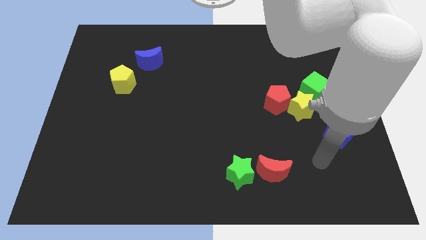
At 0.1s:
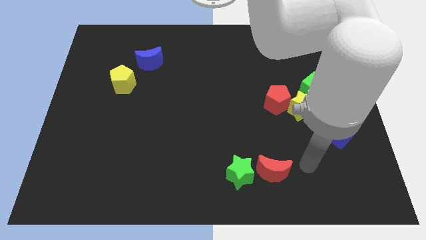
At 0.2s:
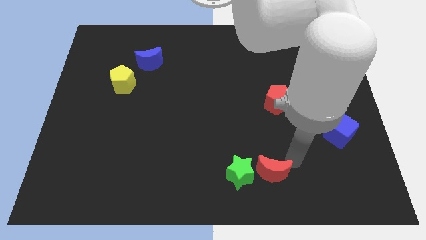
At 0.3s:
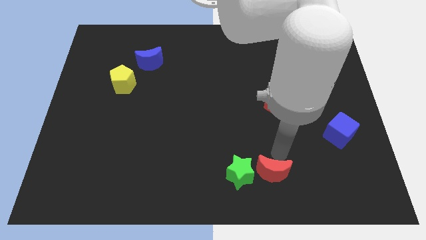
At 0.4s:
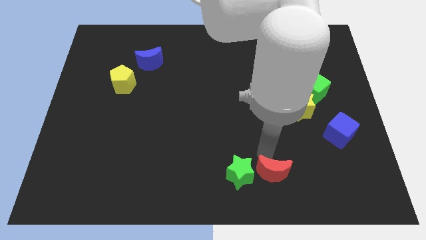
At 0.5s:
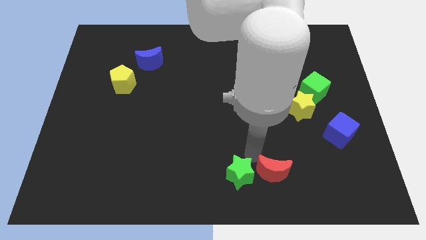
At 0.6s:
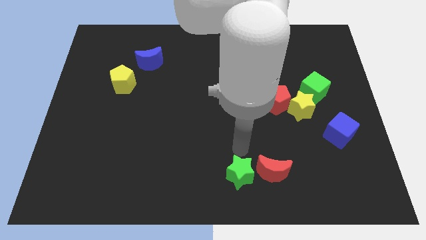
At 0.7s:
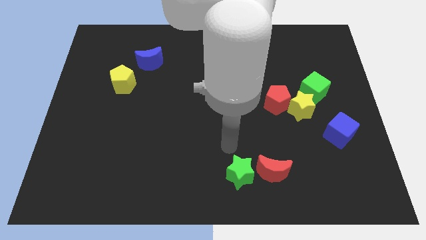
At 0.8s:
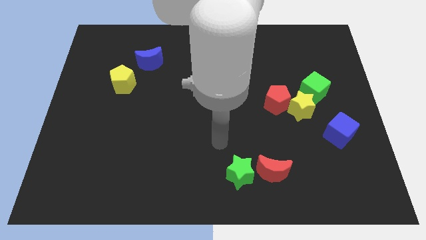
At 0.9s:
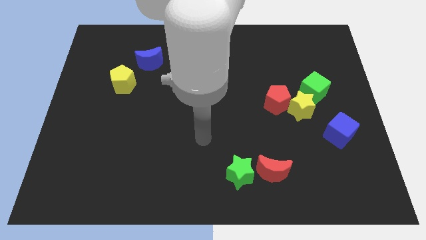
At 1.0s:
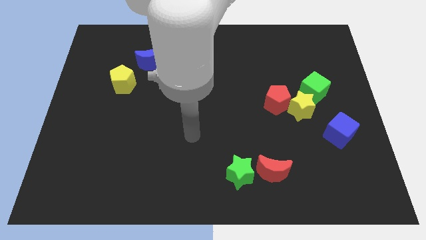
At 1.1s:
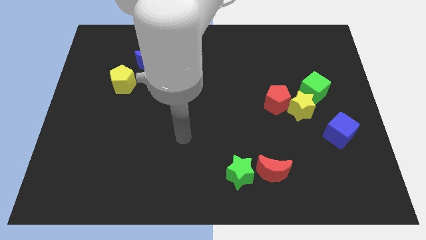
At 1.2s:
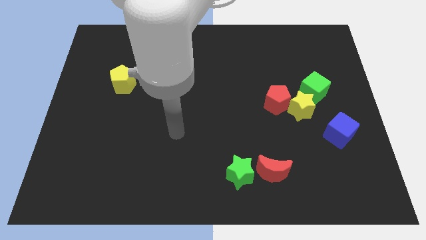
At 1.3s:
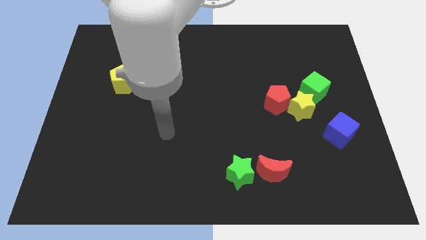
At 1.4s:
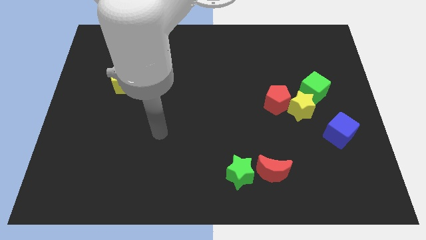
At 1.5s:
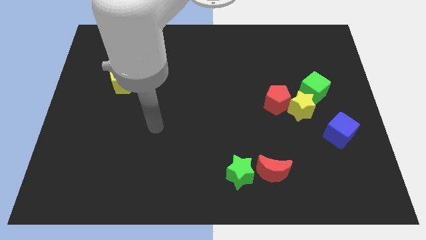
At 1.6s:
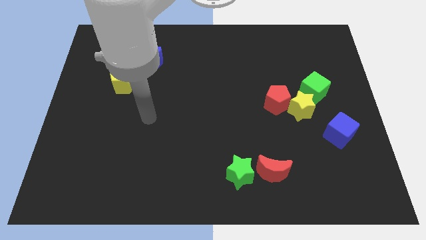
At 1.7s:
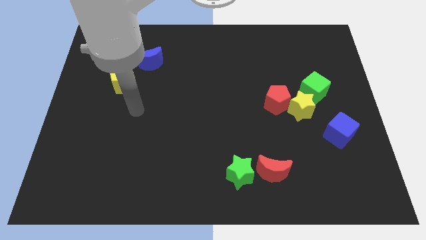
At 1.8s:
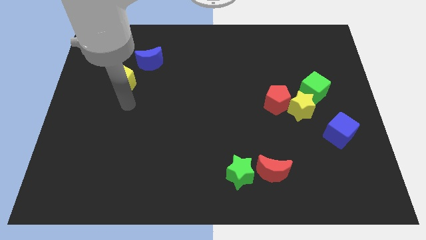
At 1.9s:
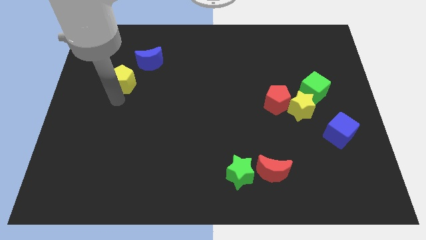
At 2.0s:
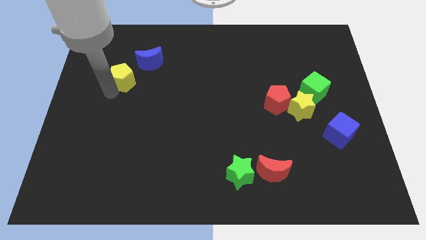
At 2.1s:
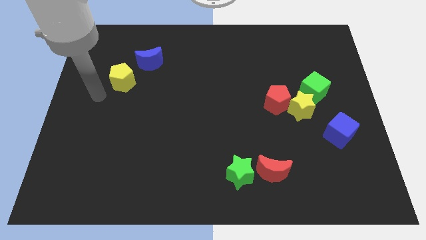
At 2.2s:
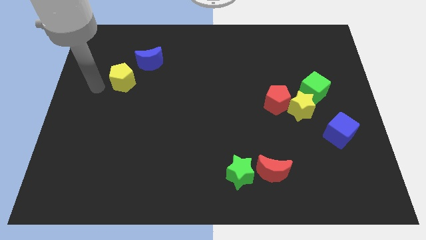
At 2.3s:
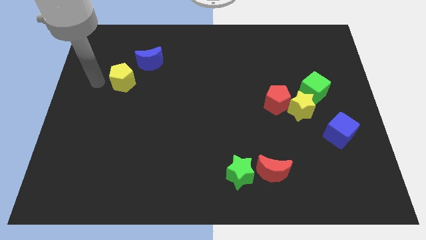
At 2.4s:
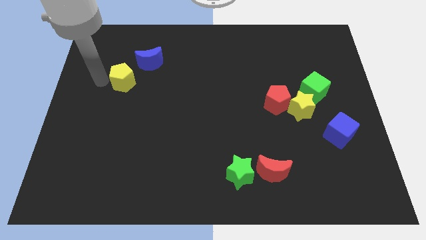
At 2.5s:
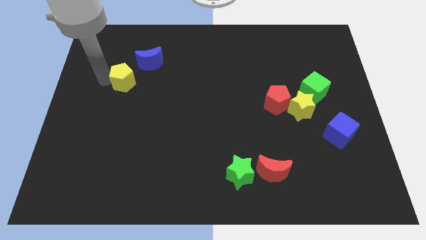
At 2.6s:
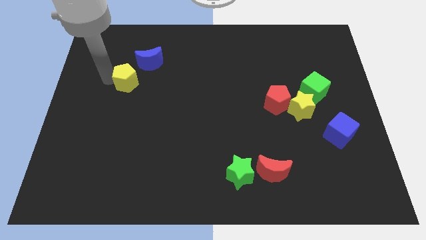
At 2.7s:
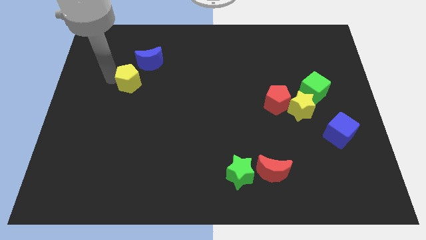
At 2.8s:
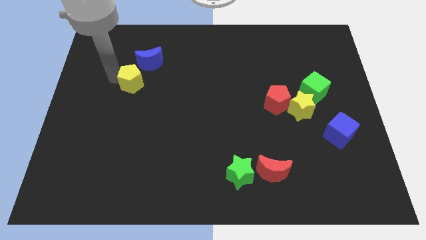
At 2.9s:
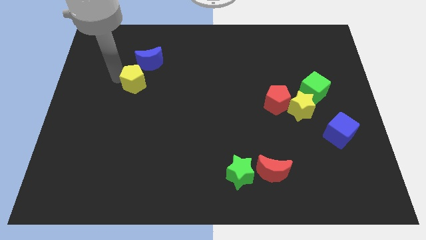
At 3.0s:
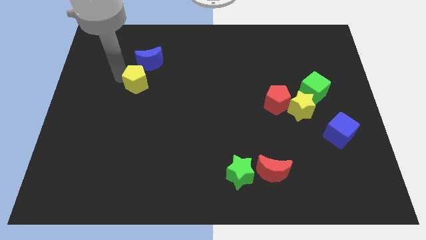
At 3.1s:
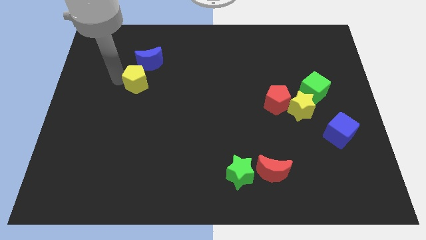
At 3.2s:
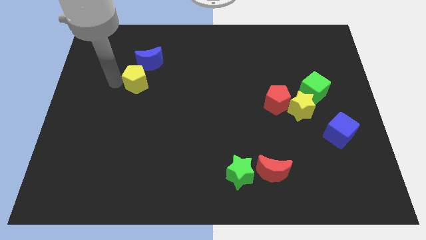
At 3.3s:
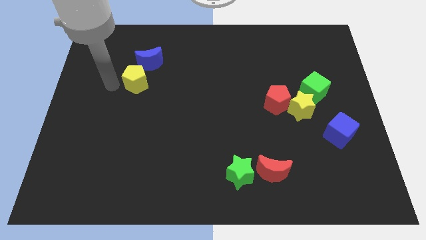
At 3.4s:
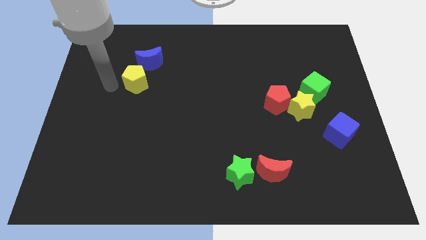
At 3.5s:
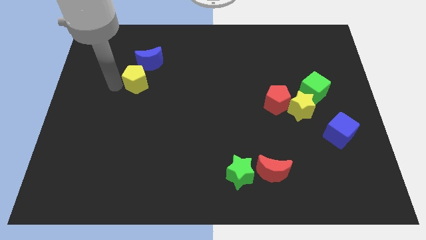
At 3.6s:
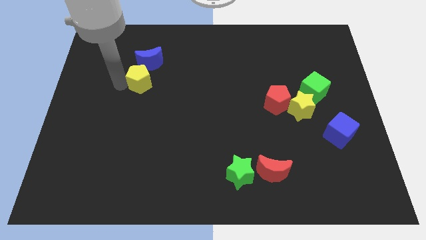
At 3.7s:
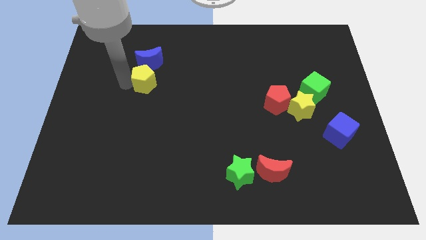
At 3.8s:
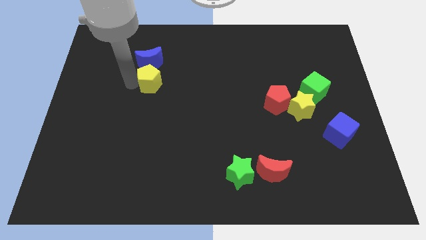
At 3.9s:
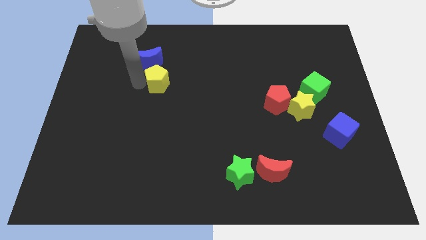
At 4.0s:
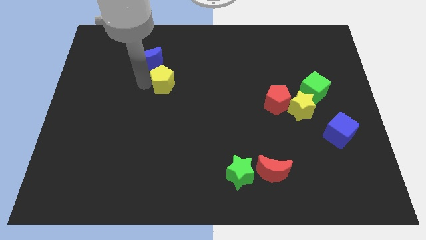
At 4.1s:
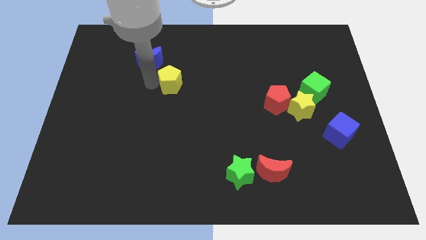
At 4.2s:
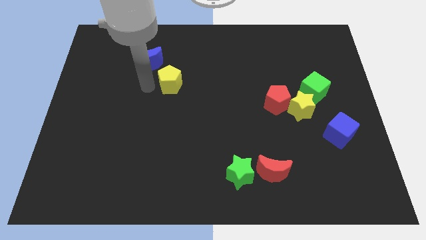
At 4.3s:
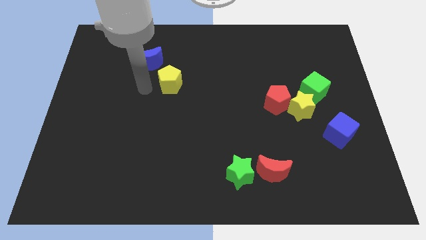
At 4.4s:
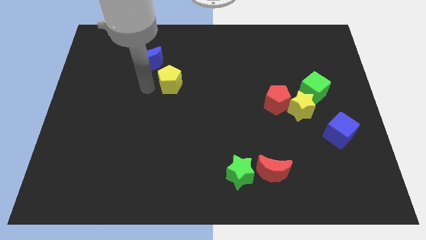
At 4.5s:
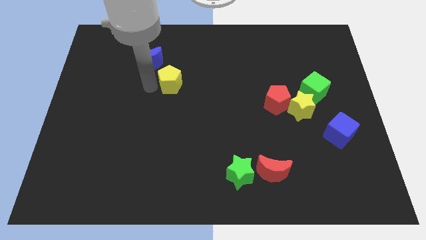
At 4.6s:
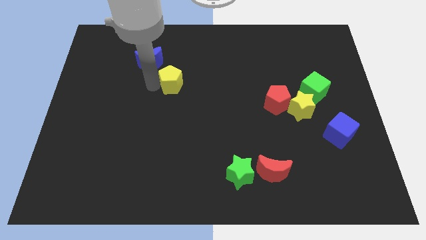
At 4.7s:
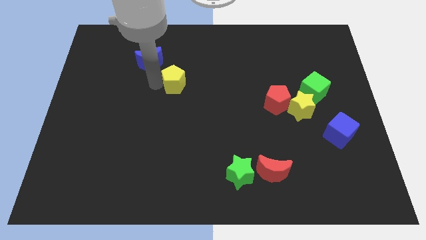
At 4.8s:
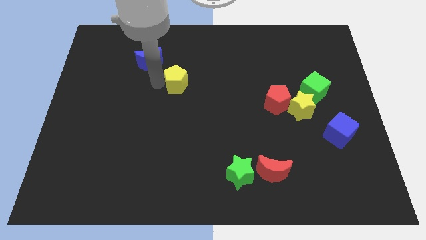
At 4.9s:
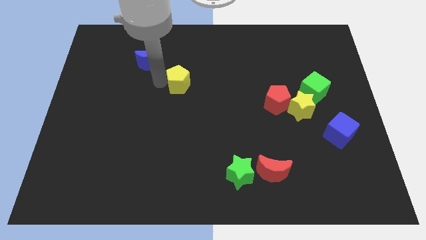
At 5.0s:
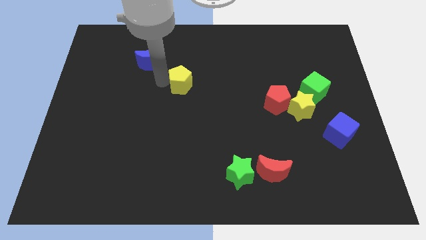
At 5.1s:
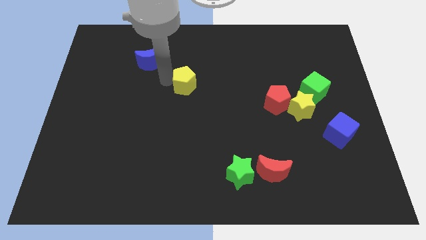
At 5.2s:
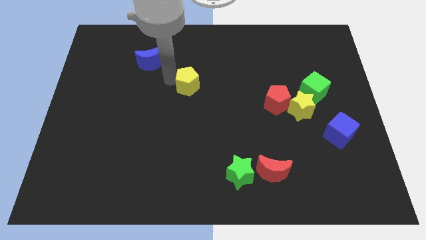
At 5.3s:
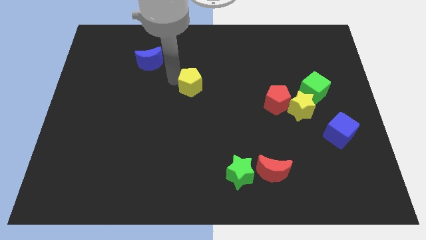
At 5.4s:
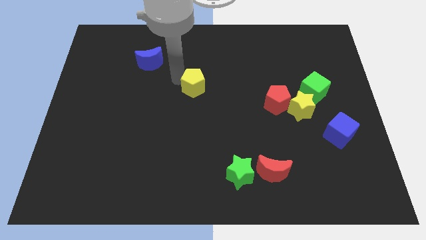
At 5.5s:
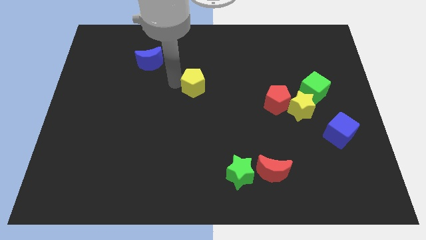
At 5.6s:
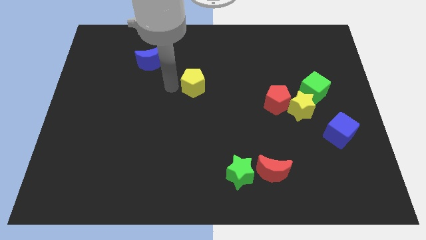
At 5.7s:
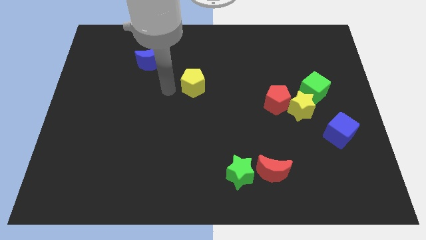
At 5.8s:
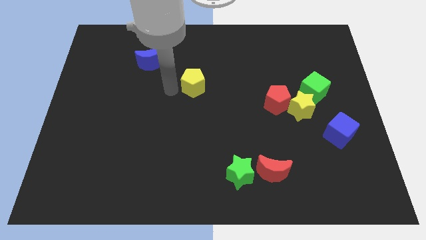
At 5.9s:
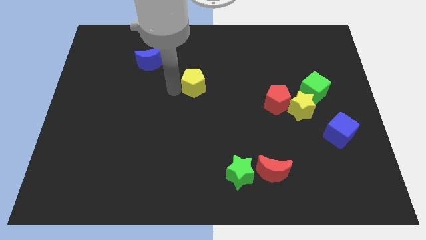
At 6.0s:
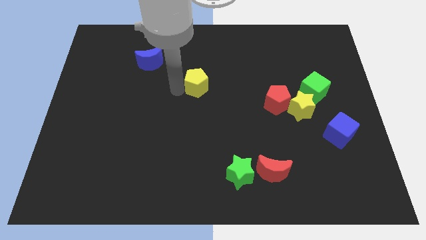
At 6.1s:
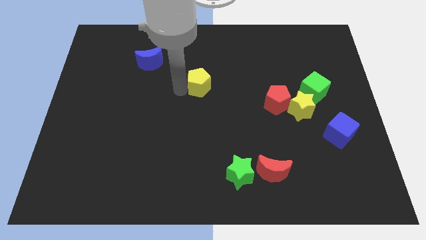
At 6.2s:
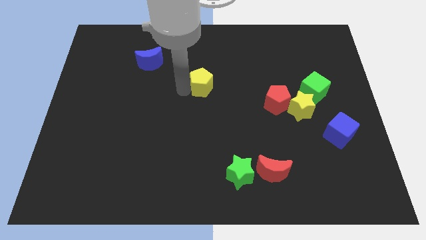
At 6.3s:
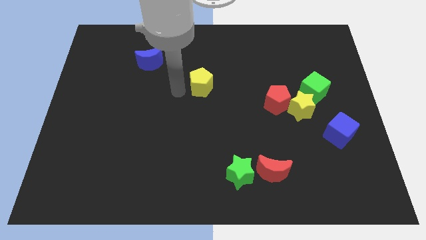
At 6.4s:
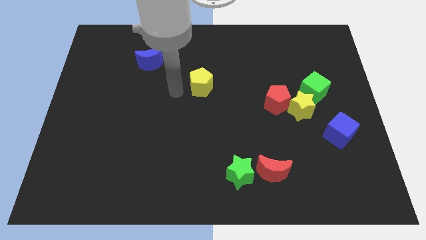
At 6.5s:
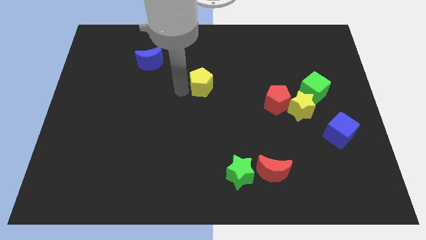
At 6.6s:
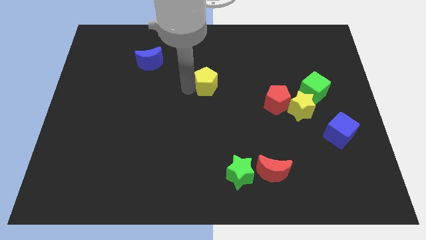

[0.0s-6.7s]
slide the yellow pentagon right

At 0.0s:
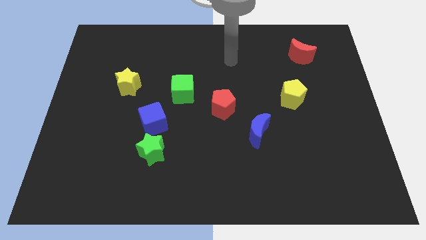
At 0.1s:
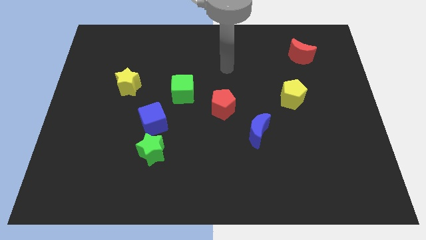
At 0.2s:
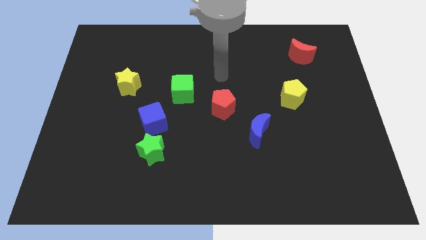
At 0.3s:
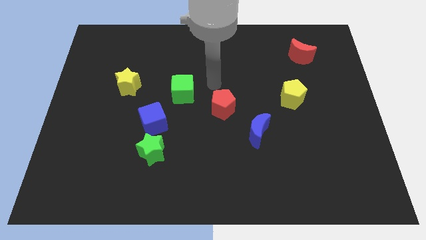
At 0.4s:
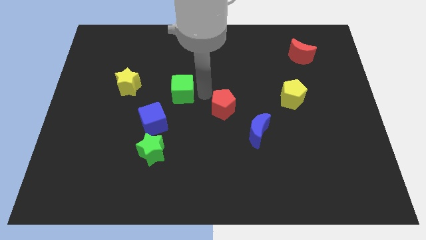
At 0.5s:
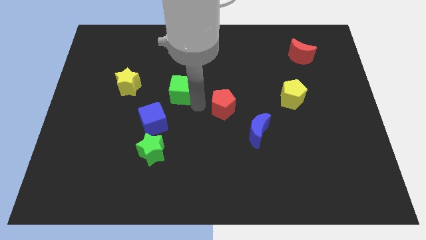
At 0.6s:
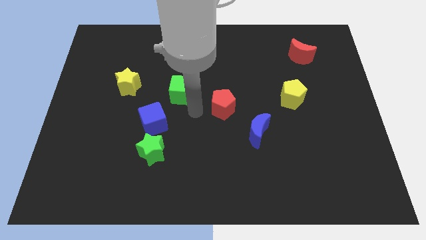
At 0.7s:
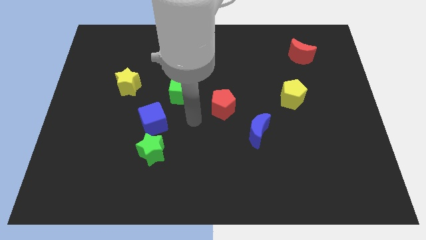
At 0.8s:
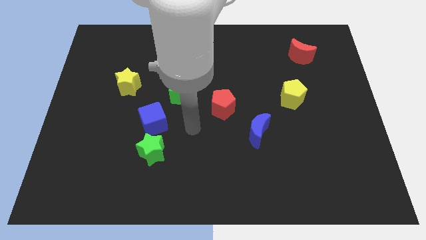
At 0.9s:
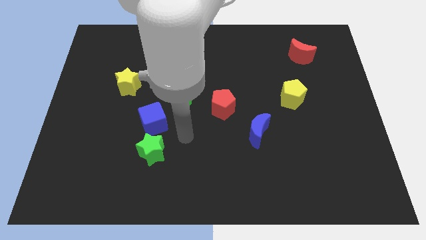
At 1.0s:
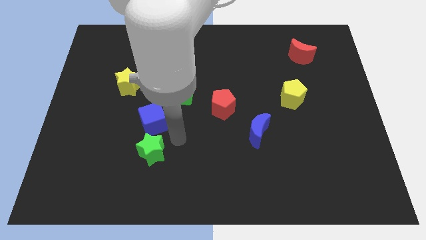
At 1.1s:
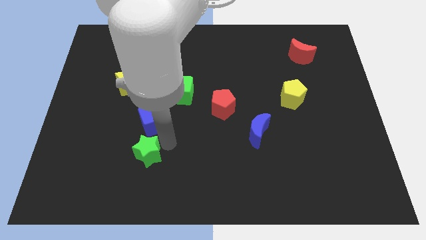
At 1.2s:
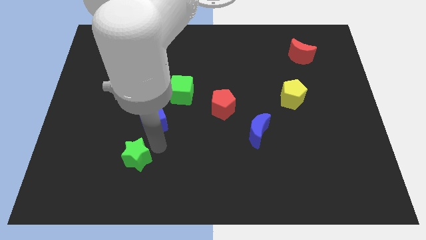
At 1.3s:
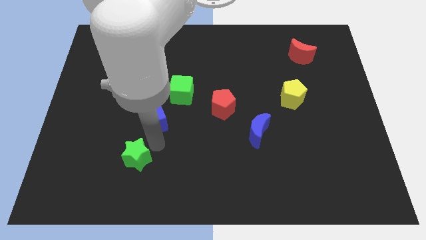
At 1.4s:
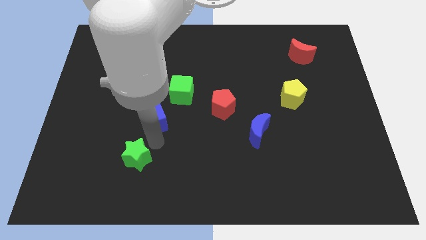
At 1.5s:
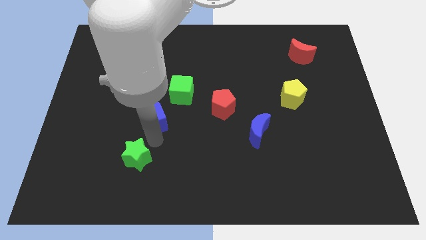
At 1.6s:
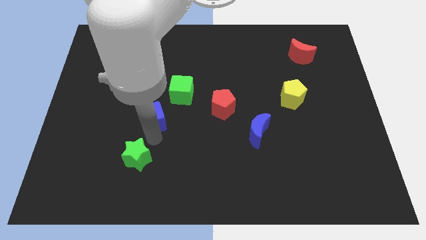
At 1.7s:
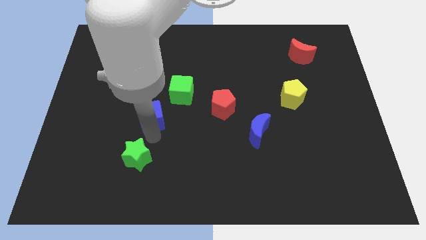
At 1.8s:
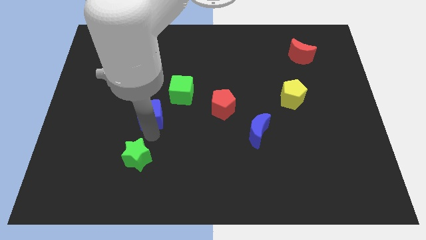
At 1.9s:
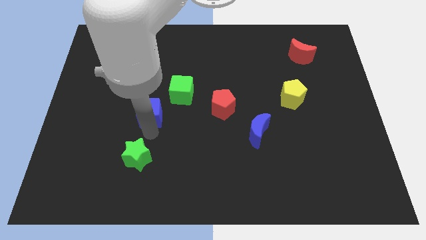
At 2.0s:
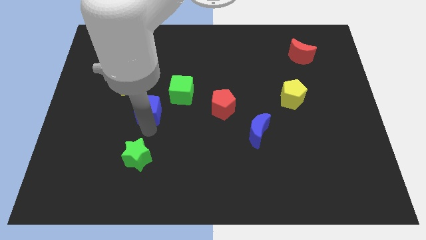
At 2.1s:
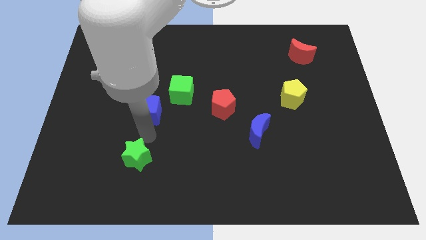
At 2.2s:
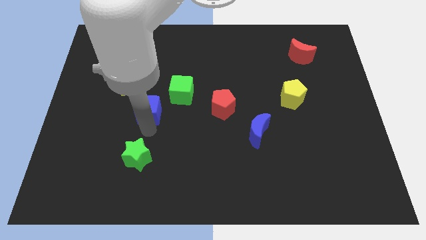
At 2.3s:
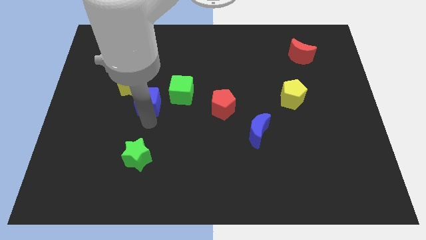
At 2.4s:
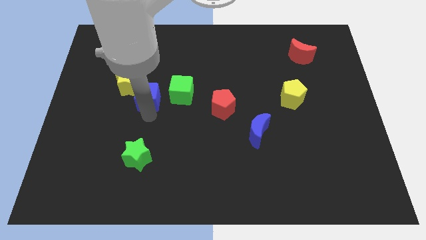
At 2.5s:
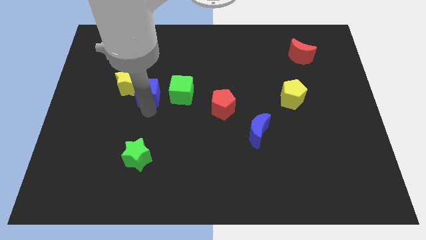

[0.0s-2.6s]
slightly push the blue cube up
